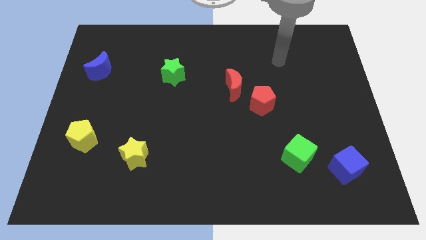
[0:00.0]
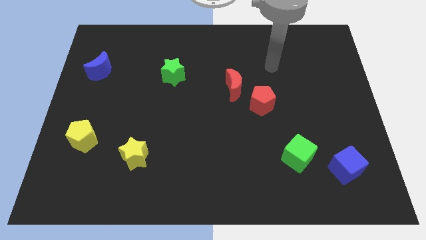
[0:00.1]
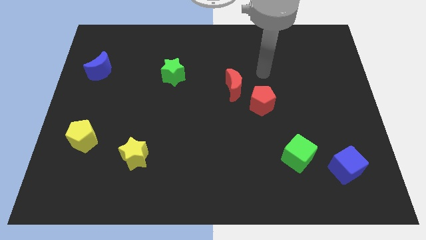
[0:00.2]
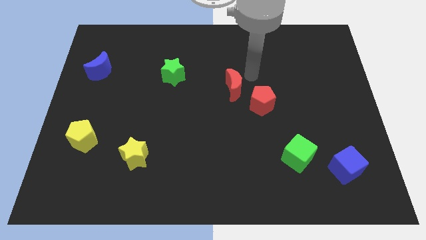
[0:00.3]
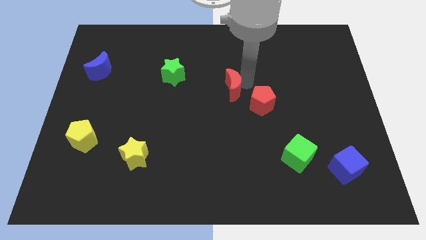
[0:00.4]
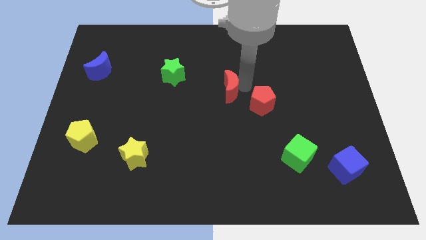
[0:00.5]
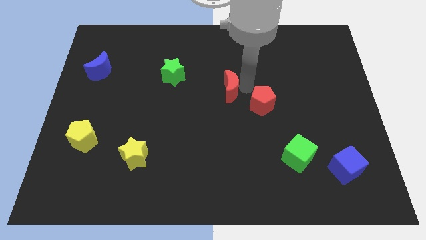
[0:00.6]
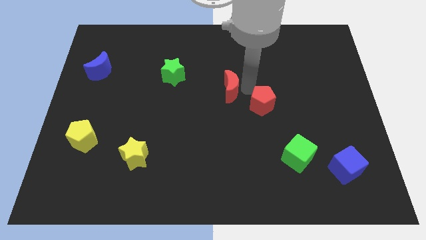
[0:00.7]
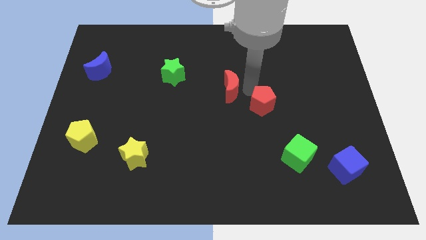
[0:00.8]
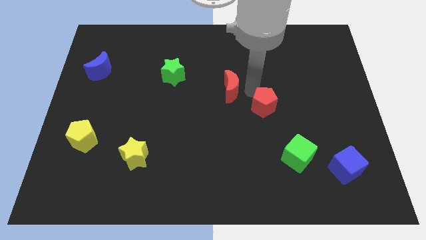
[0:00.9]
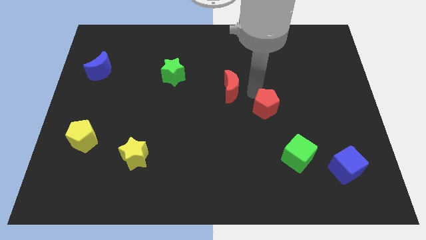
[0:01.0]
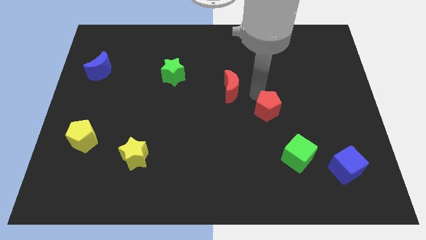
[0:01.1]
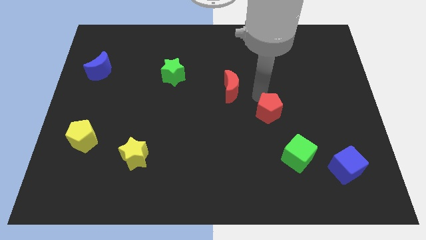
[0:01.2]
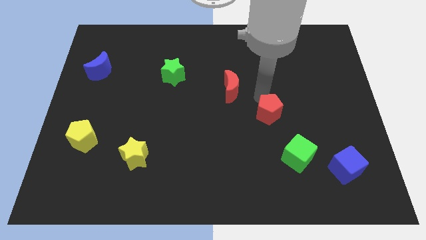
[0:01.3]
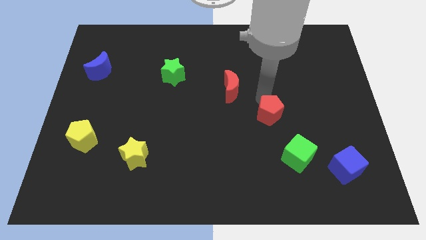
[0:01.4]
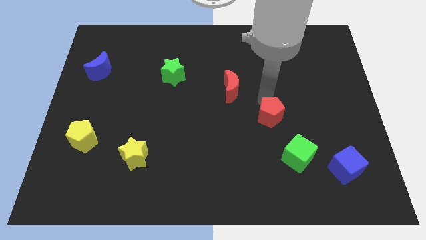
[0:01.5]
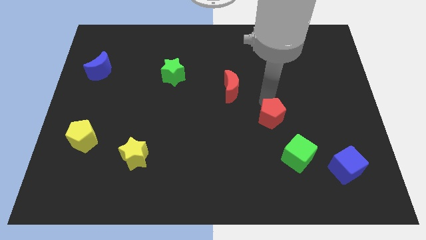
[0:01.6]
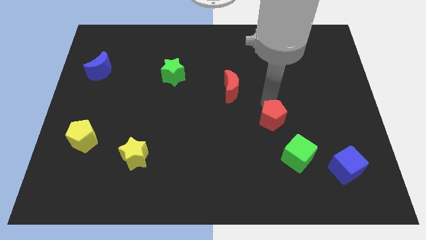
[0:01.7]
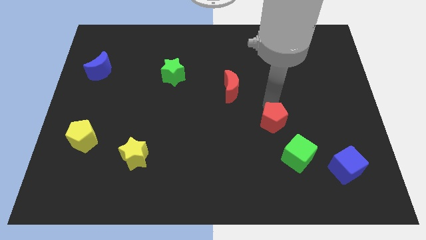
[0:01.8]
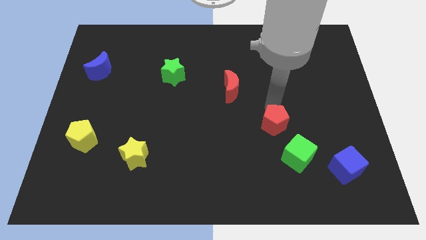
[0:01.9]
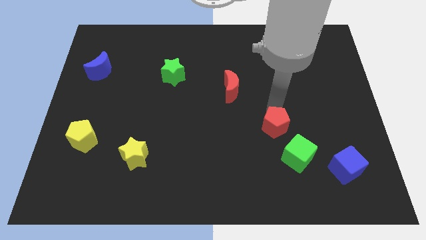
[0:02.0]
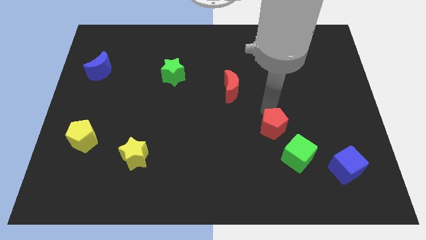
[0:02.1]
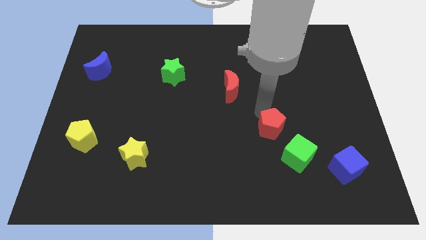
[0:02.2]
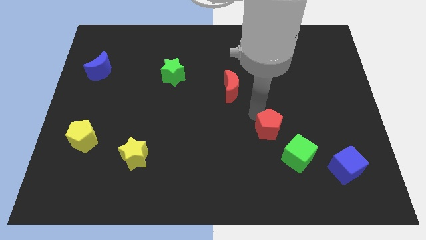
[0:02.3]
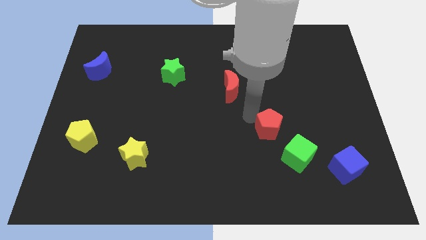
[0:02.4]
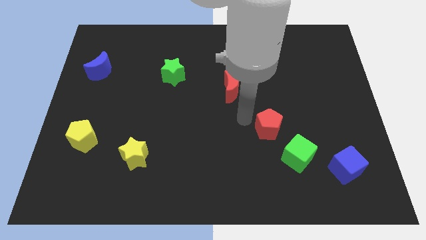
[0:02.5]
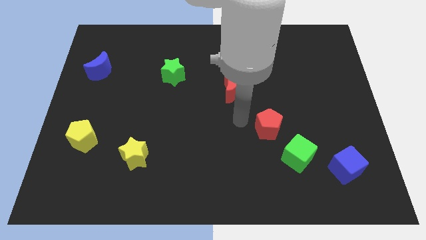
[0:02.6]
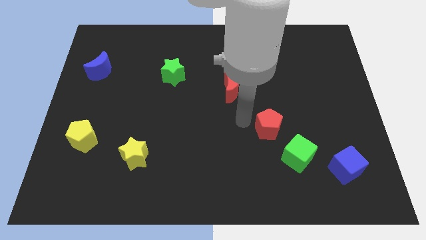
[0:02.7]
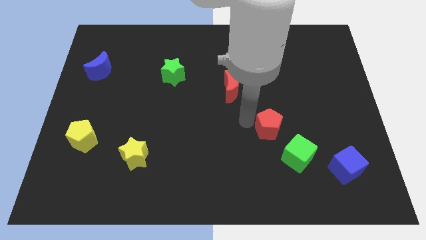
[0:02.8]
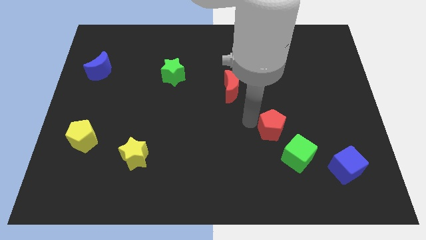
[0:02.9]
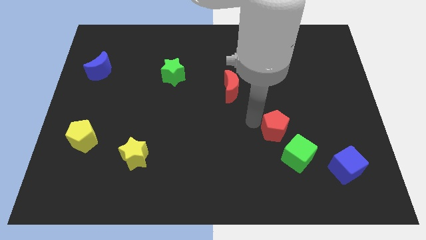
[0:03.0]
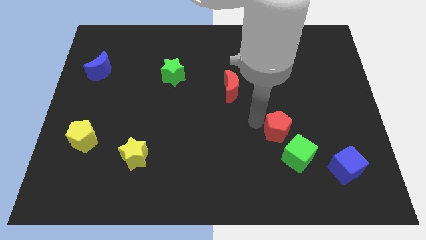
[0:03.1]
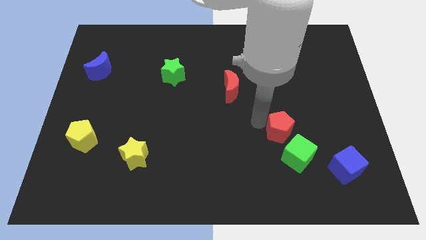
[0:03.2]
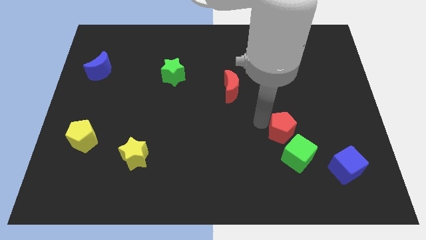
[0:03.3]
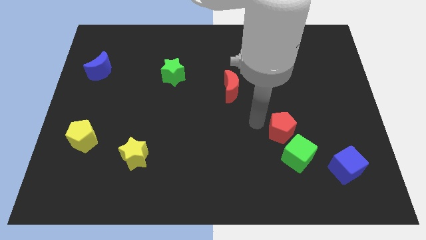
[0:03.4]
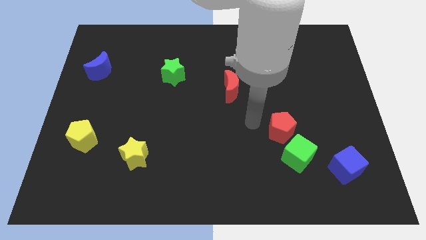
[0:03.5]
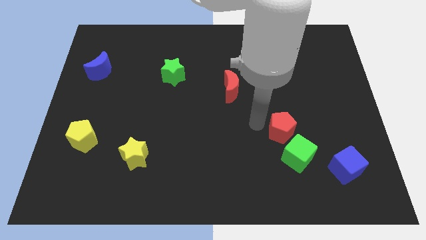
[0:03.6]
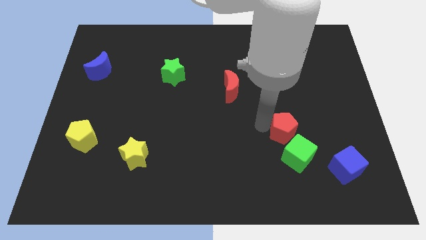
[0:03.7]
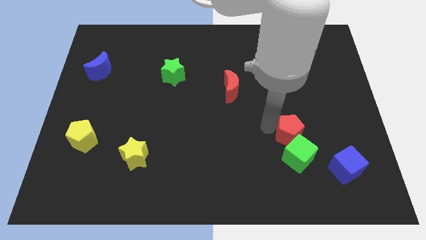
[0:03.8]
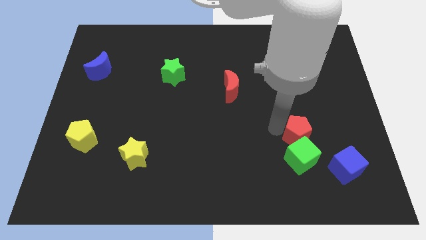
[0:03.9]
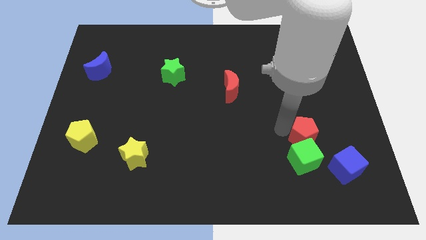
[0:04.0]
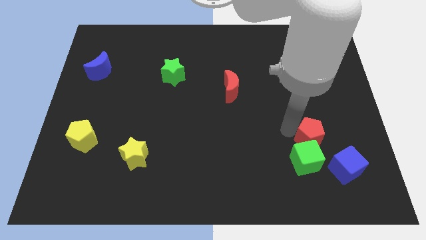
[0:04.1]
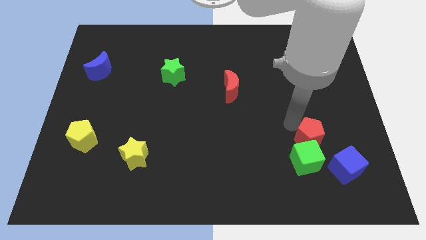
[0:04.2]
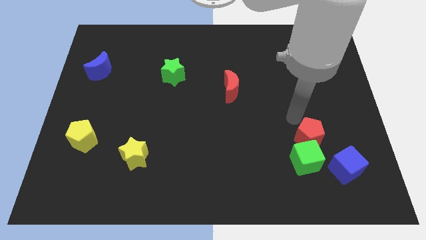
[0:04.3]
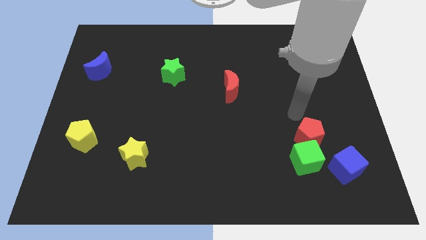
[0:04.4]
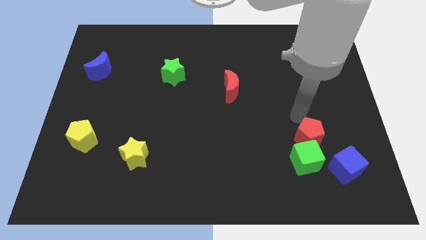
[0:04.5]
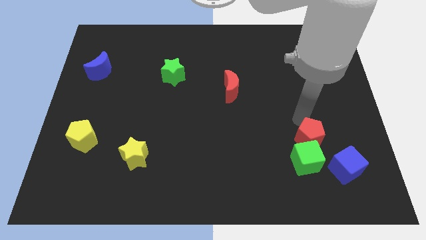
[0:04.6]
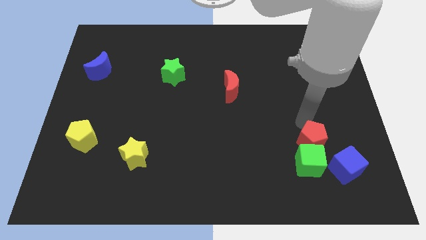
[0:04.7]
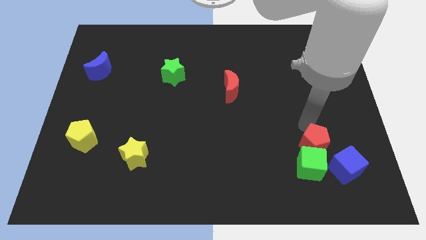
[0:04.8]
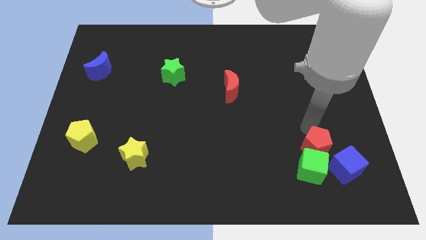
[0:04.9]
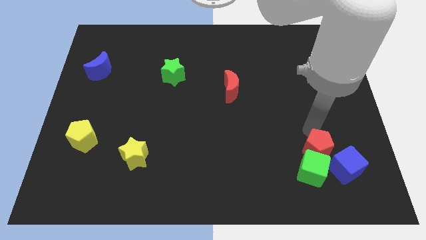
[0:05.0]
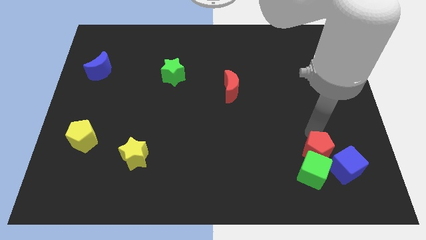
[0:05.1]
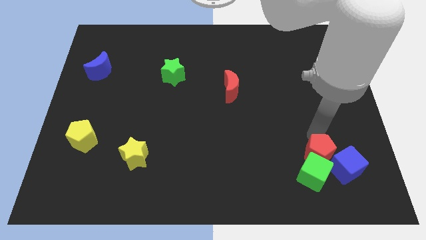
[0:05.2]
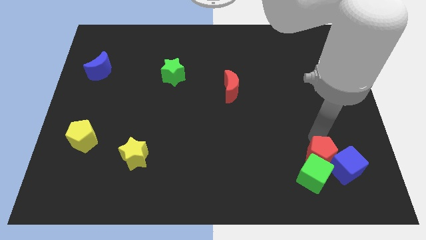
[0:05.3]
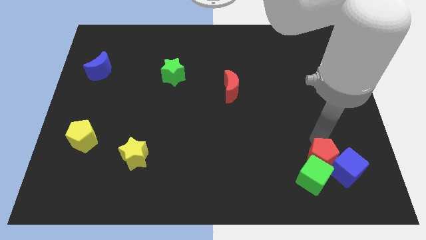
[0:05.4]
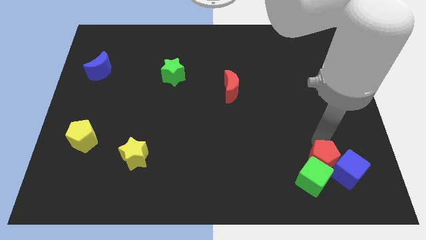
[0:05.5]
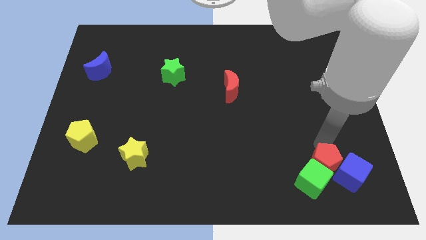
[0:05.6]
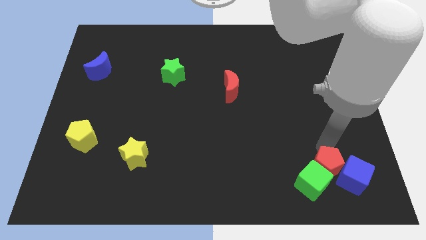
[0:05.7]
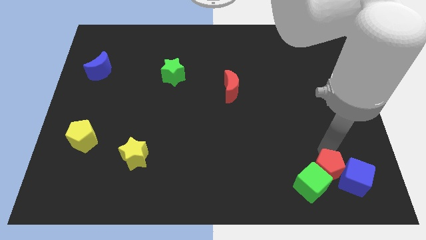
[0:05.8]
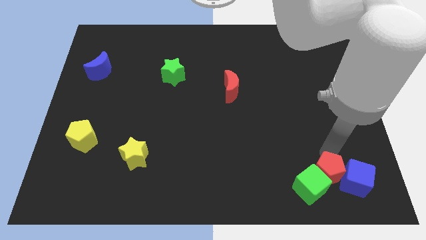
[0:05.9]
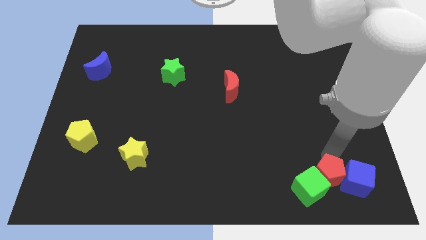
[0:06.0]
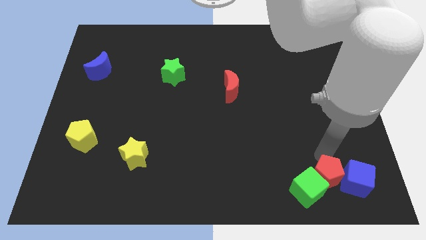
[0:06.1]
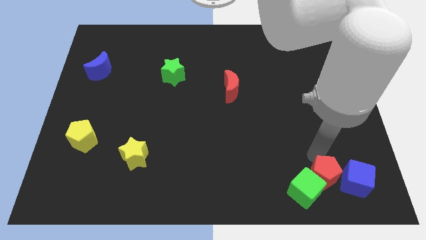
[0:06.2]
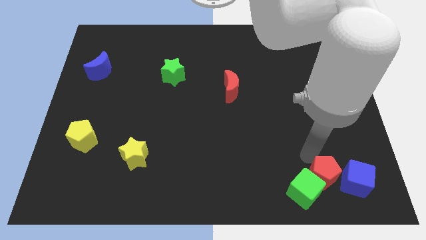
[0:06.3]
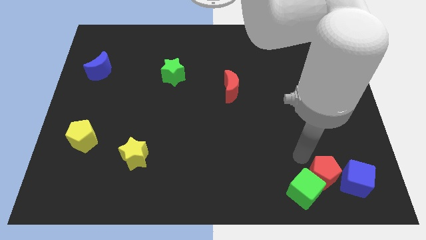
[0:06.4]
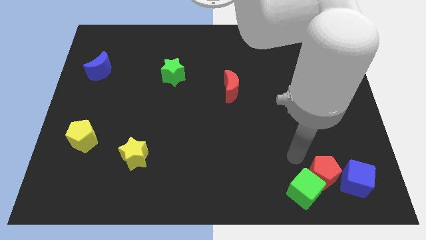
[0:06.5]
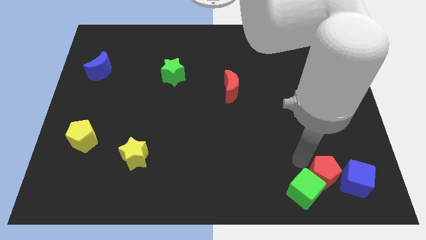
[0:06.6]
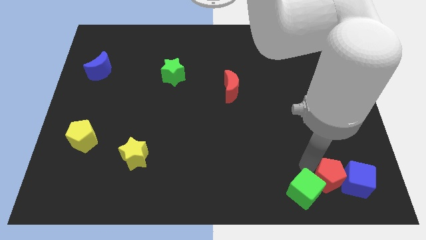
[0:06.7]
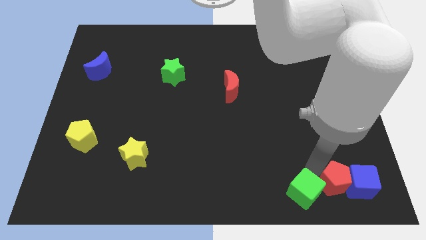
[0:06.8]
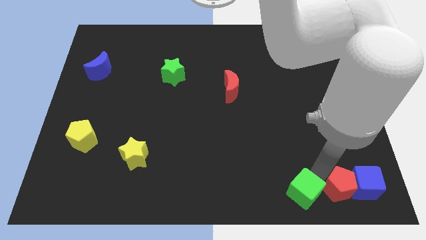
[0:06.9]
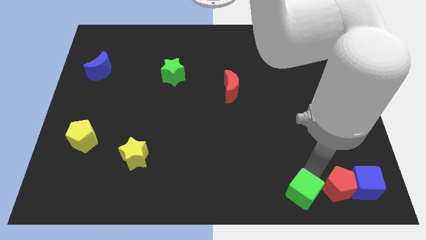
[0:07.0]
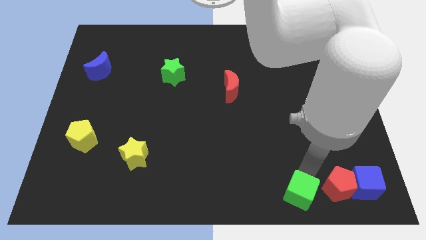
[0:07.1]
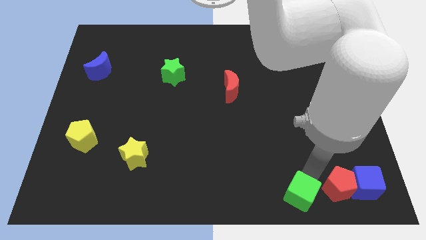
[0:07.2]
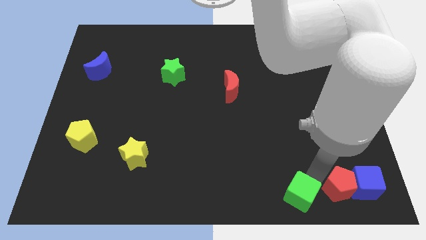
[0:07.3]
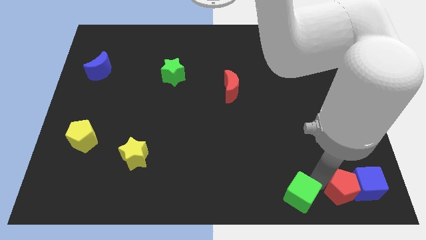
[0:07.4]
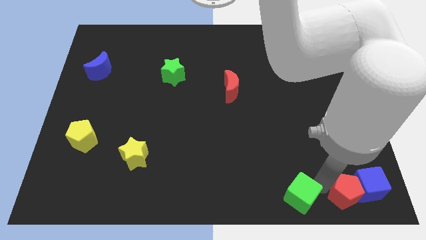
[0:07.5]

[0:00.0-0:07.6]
slide the red pentagon to the bottom right
